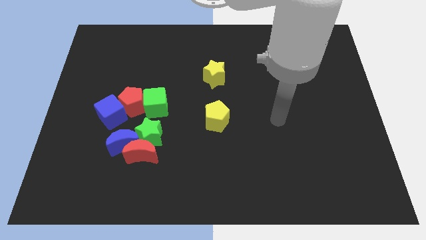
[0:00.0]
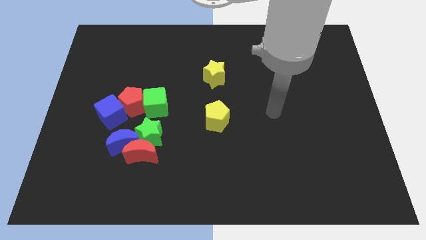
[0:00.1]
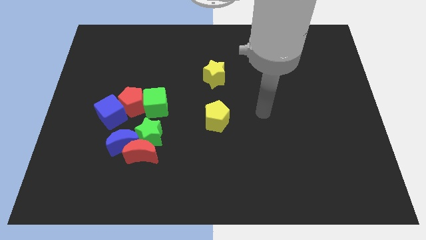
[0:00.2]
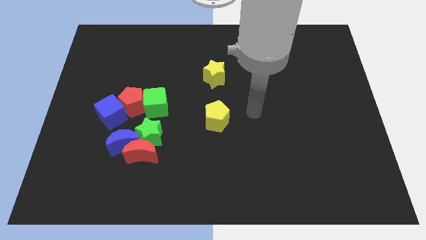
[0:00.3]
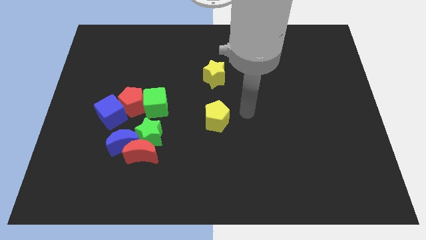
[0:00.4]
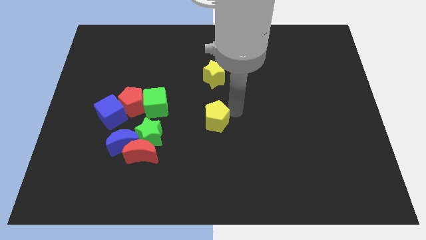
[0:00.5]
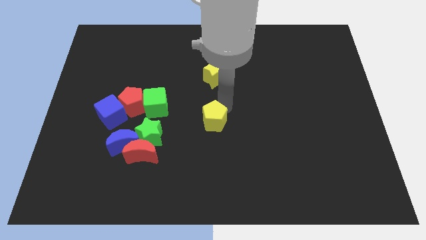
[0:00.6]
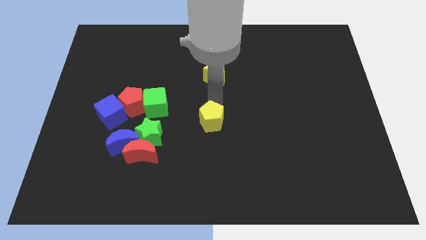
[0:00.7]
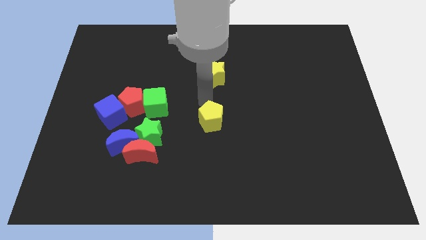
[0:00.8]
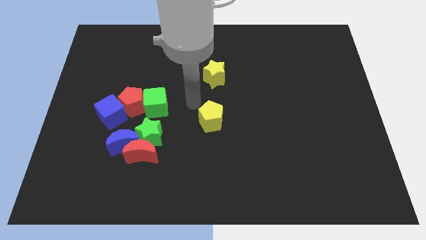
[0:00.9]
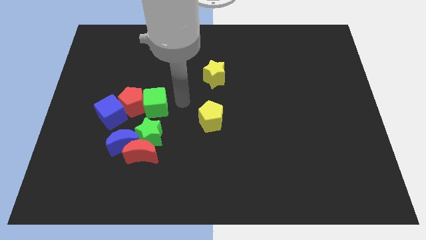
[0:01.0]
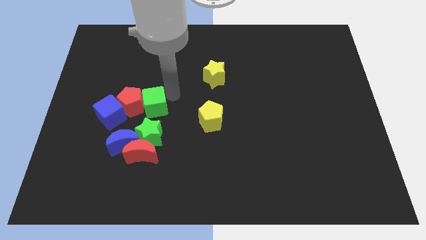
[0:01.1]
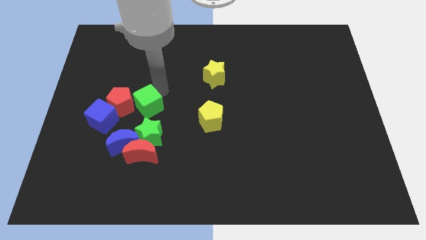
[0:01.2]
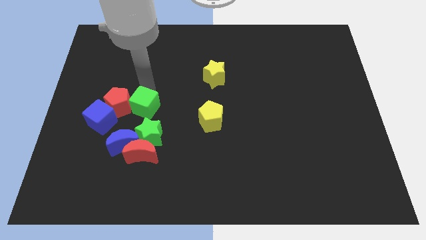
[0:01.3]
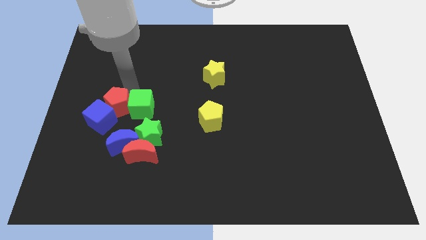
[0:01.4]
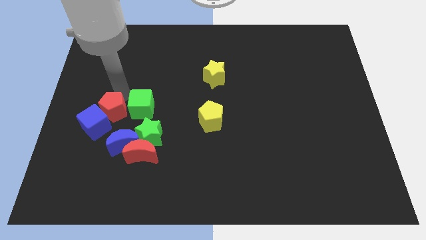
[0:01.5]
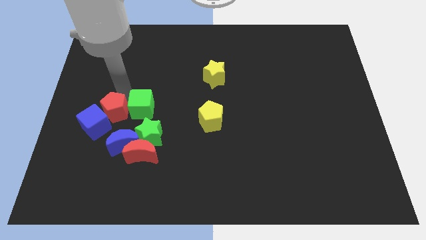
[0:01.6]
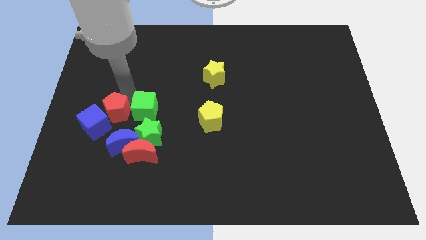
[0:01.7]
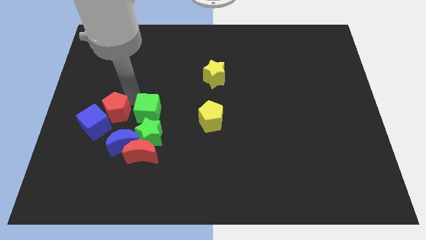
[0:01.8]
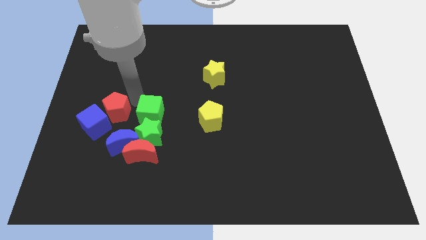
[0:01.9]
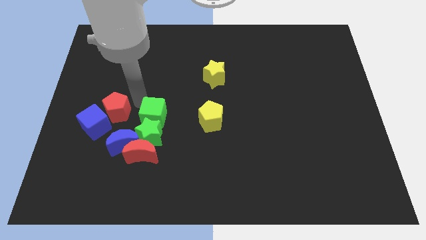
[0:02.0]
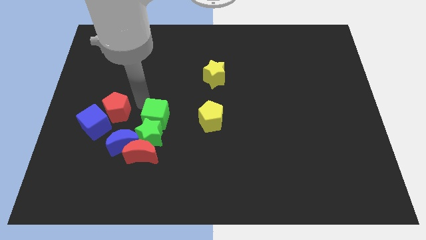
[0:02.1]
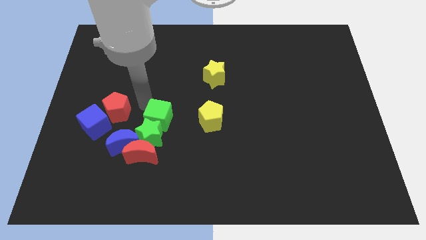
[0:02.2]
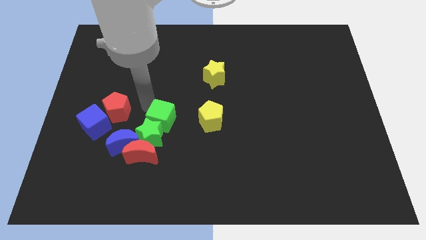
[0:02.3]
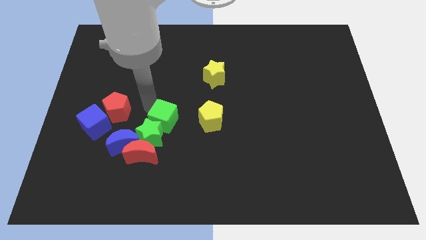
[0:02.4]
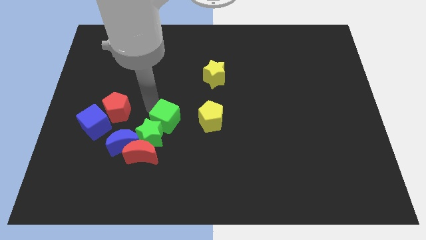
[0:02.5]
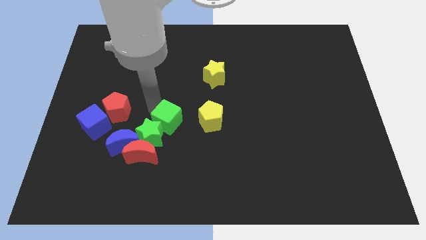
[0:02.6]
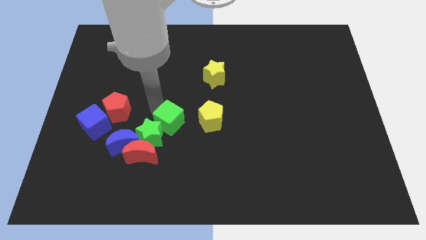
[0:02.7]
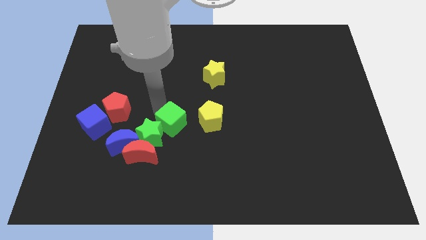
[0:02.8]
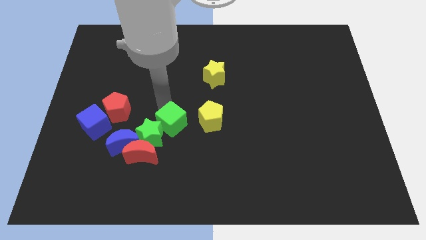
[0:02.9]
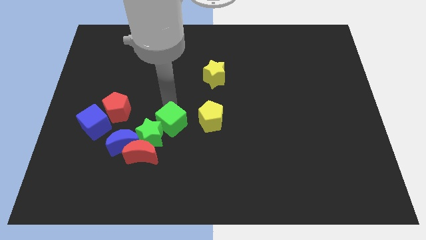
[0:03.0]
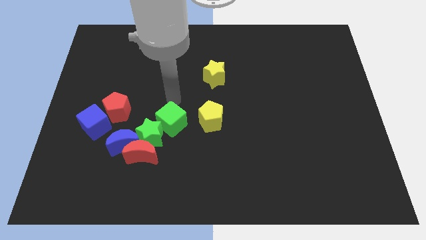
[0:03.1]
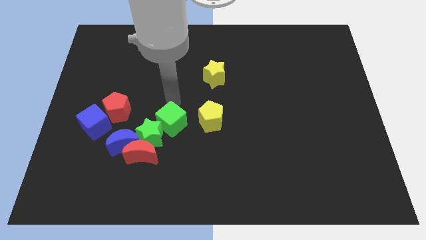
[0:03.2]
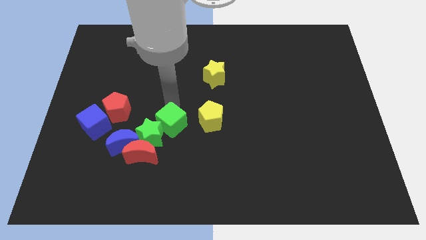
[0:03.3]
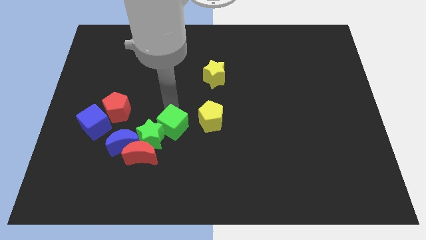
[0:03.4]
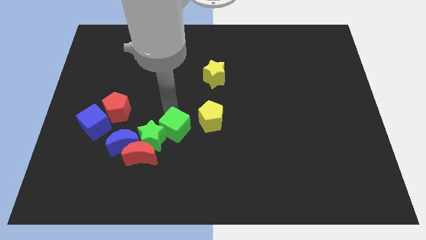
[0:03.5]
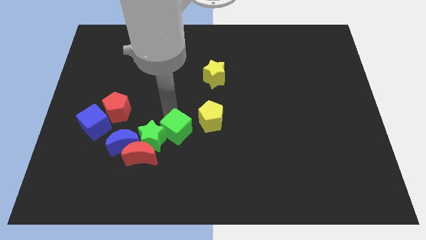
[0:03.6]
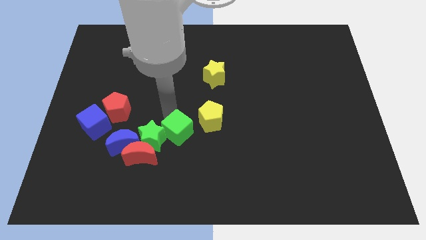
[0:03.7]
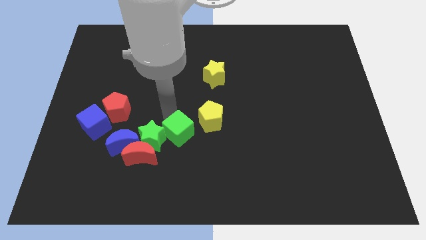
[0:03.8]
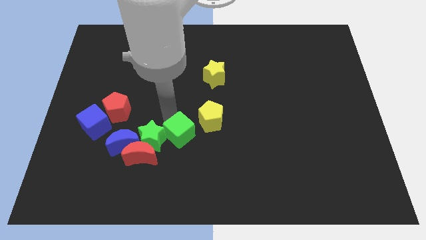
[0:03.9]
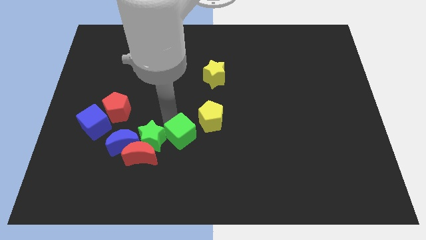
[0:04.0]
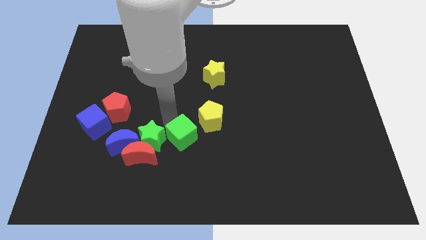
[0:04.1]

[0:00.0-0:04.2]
move the green cube slightly downwards

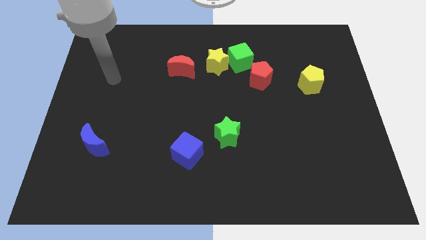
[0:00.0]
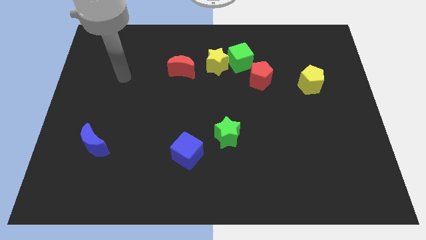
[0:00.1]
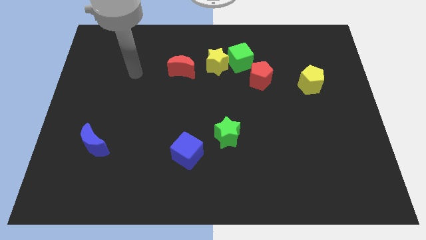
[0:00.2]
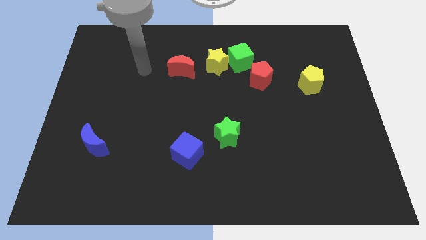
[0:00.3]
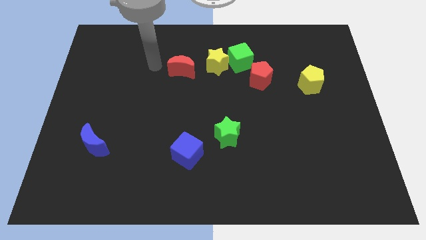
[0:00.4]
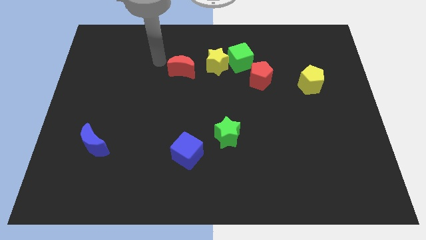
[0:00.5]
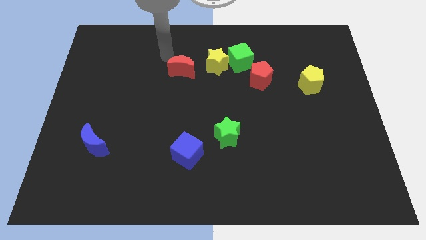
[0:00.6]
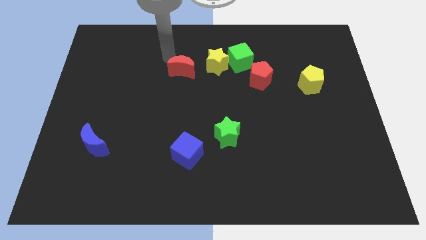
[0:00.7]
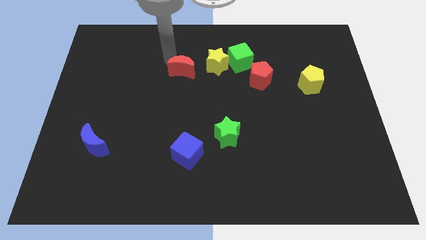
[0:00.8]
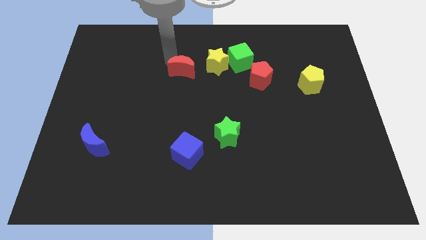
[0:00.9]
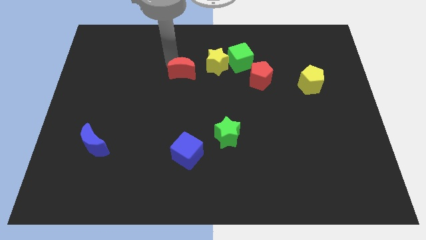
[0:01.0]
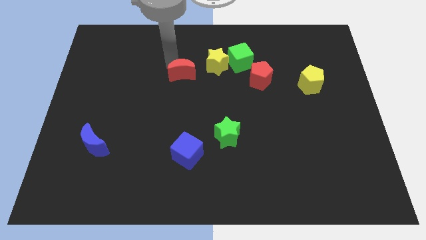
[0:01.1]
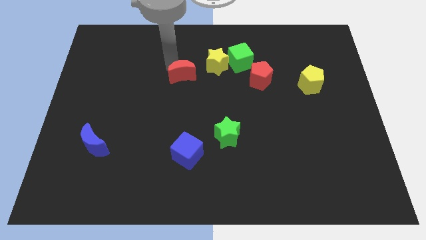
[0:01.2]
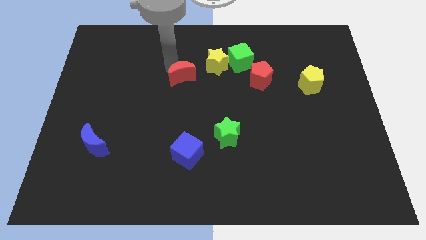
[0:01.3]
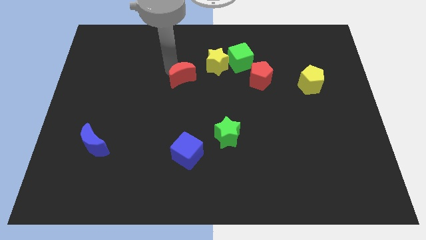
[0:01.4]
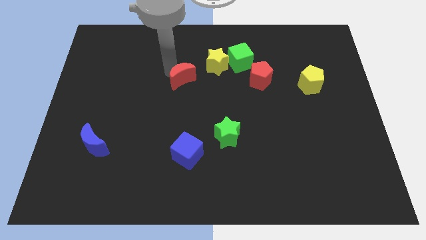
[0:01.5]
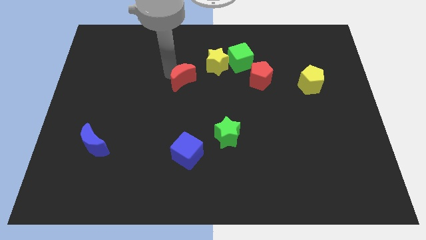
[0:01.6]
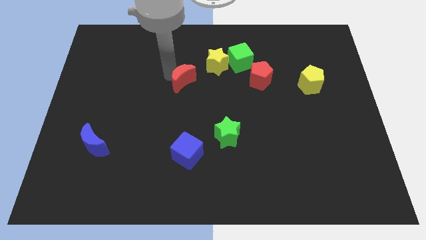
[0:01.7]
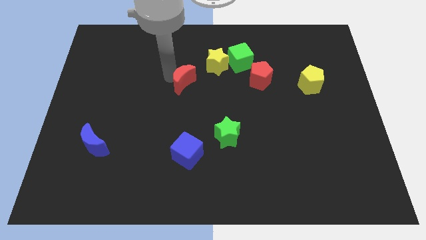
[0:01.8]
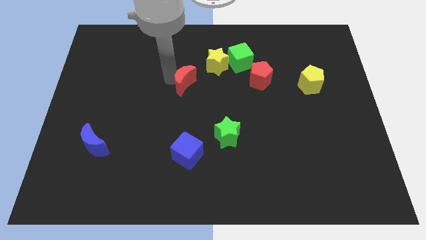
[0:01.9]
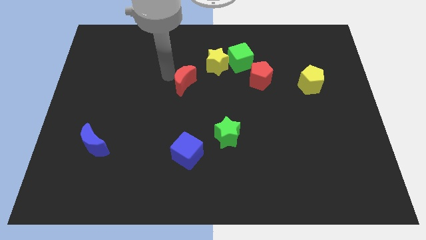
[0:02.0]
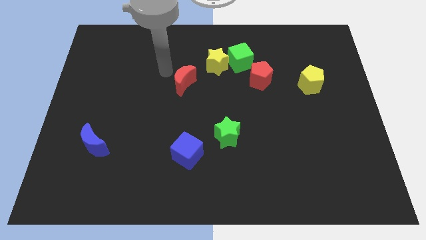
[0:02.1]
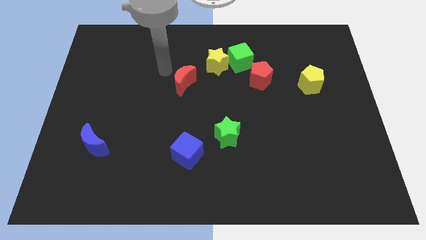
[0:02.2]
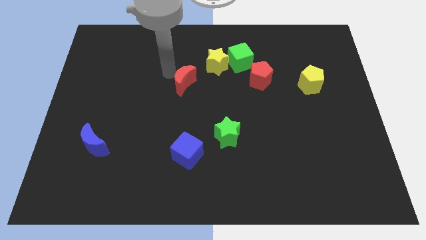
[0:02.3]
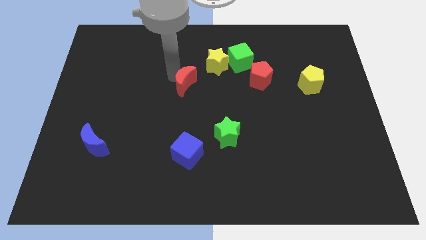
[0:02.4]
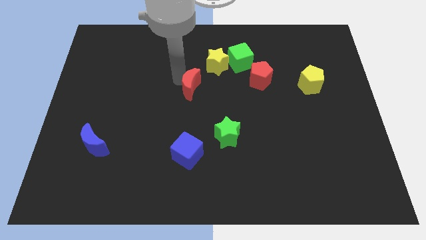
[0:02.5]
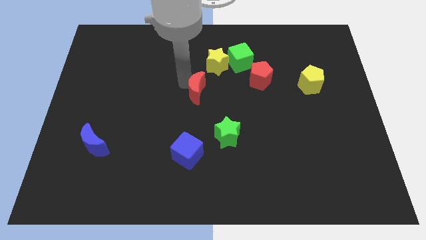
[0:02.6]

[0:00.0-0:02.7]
move the red moon a bit down and to the right diagonally

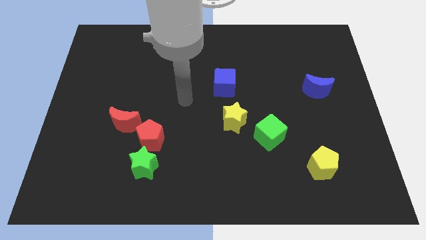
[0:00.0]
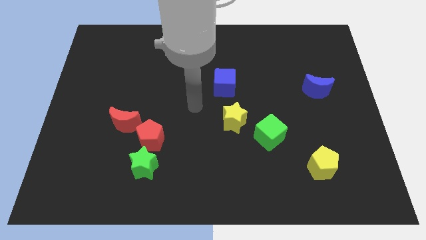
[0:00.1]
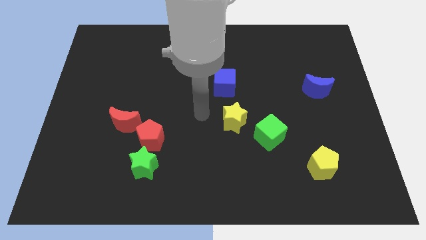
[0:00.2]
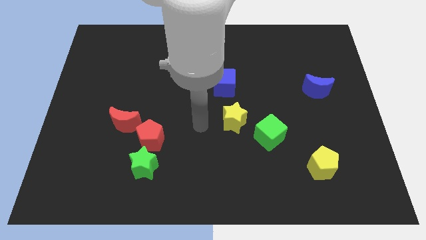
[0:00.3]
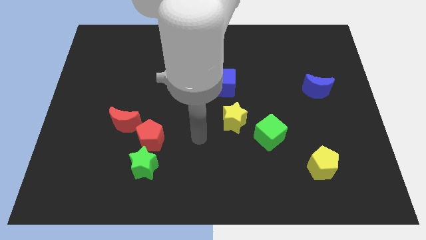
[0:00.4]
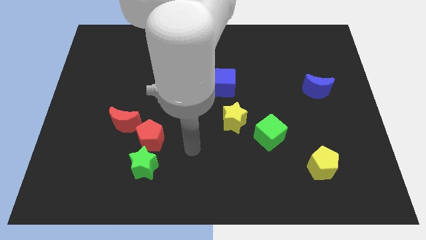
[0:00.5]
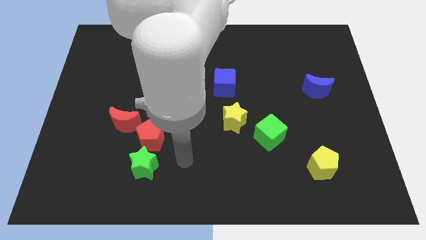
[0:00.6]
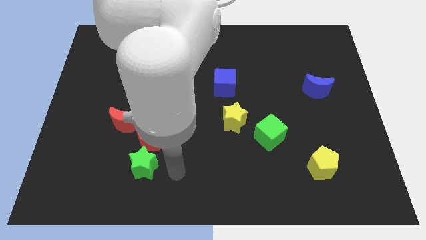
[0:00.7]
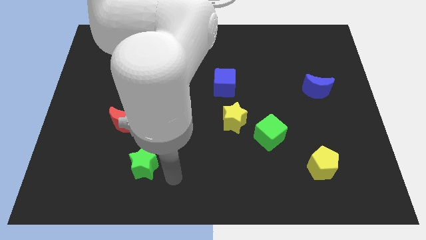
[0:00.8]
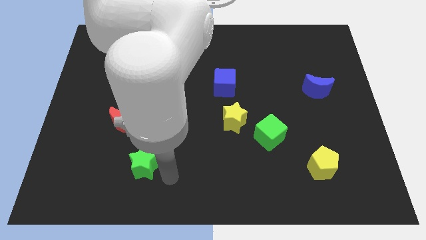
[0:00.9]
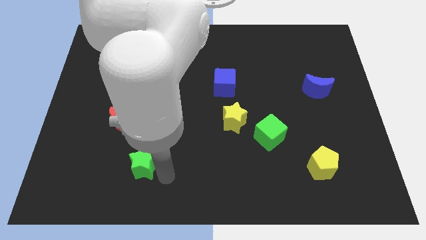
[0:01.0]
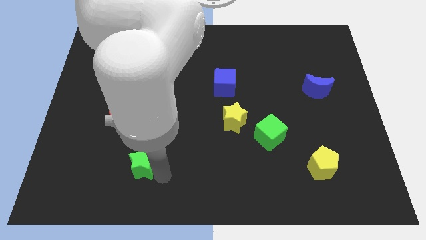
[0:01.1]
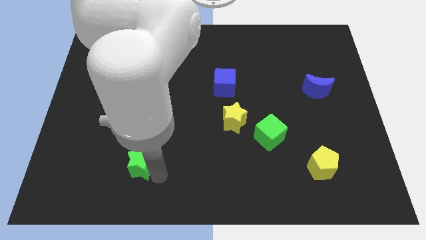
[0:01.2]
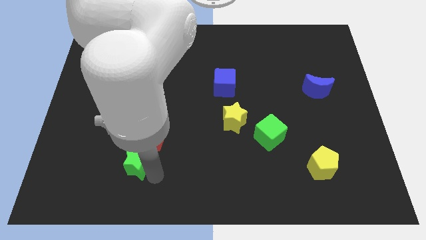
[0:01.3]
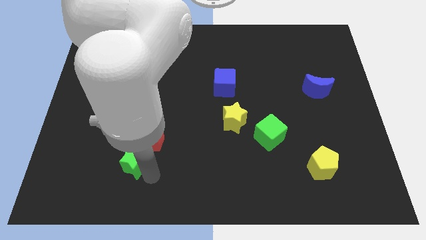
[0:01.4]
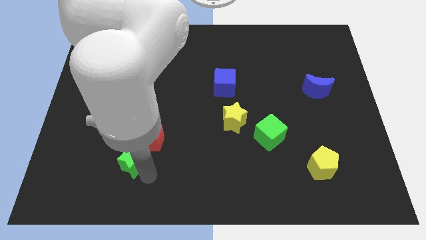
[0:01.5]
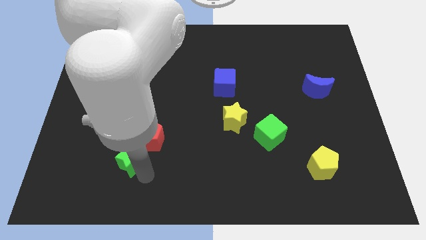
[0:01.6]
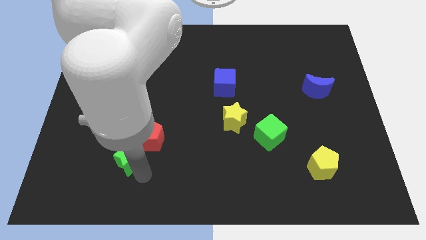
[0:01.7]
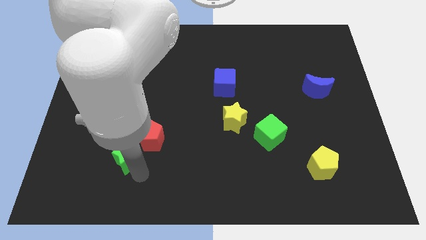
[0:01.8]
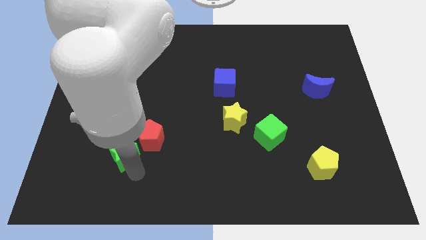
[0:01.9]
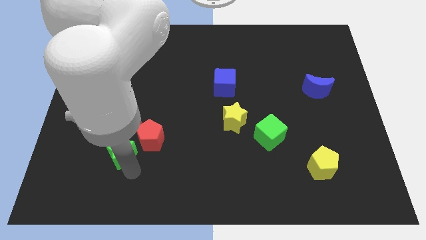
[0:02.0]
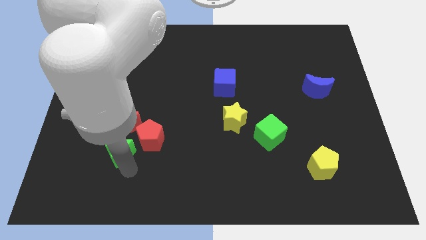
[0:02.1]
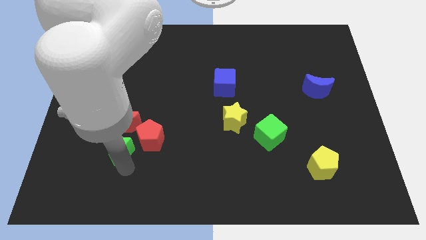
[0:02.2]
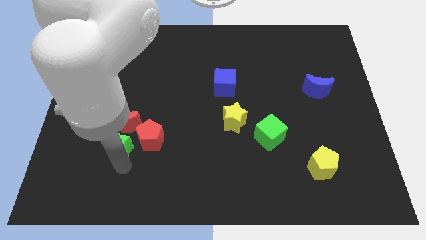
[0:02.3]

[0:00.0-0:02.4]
slightly push the green star up and to the left
